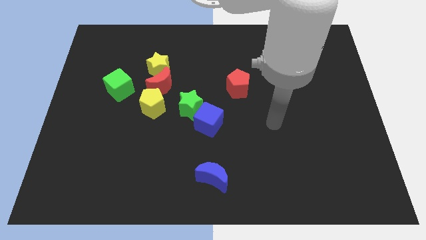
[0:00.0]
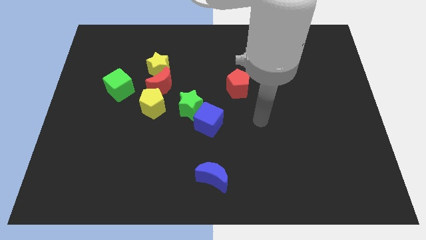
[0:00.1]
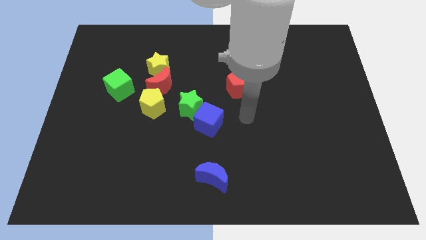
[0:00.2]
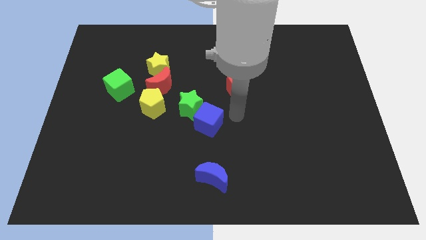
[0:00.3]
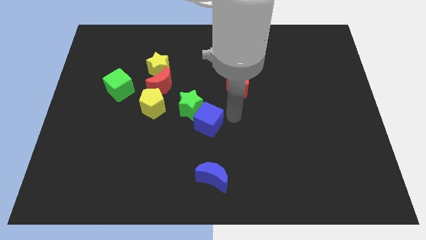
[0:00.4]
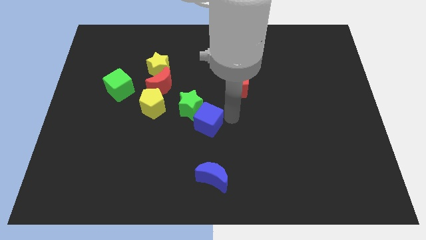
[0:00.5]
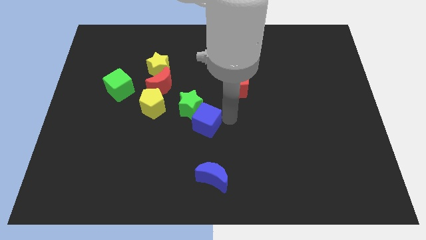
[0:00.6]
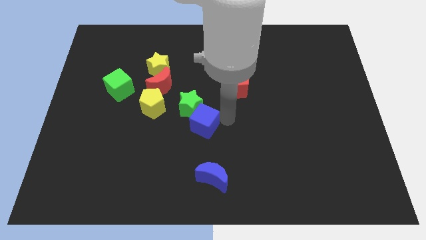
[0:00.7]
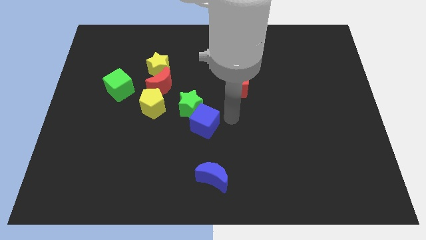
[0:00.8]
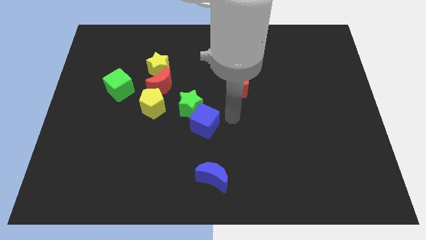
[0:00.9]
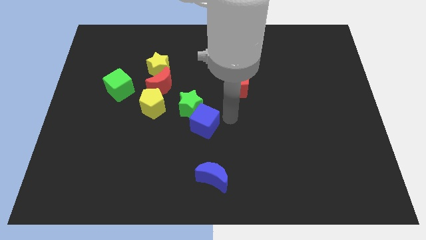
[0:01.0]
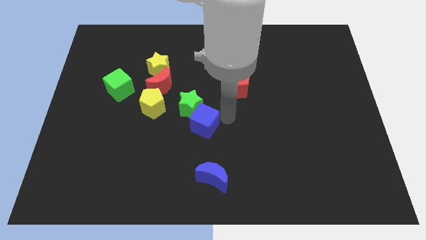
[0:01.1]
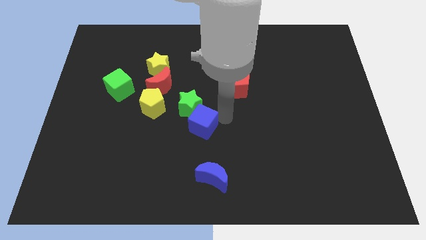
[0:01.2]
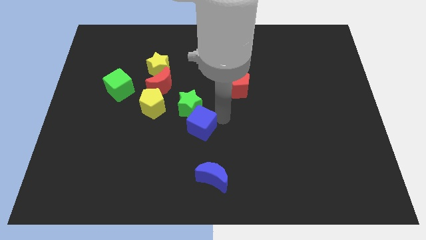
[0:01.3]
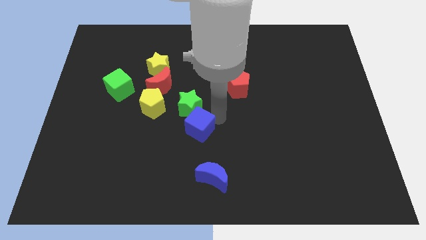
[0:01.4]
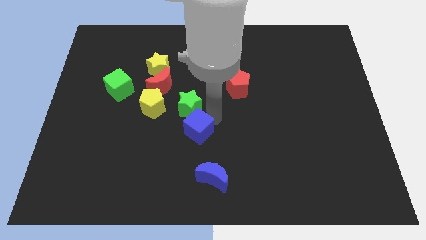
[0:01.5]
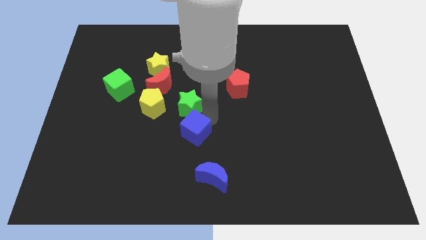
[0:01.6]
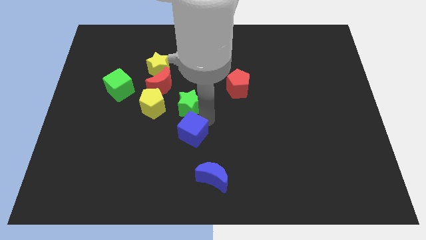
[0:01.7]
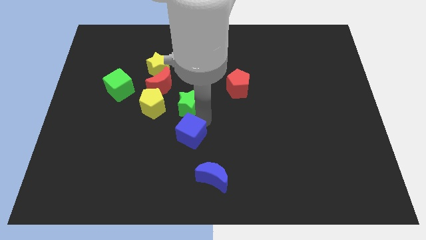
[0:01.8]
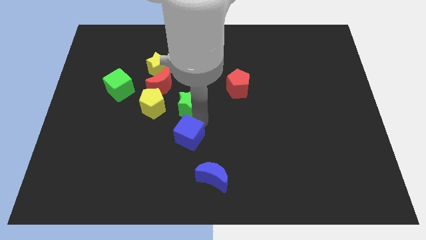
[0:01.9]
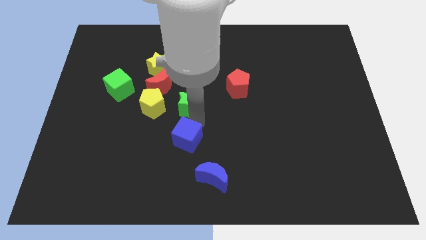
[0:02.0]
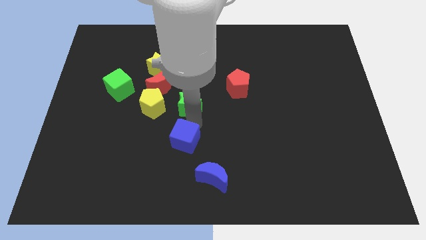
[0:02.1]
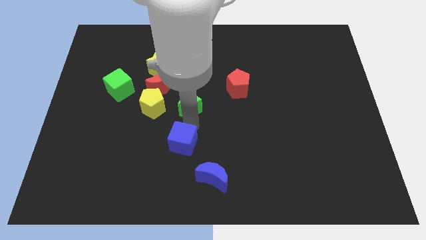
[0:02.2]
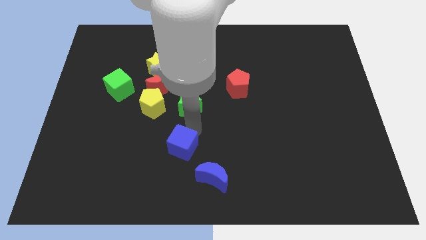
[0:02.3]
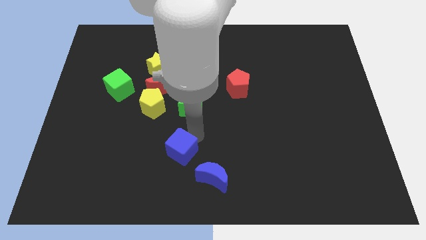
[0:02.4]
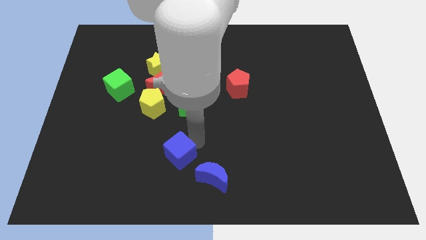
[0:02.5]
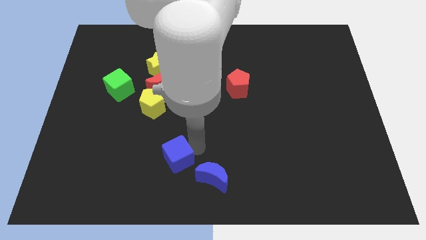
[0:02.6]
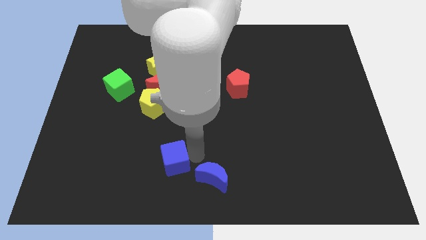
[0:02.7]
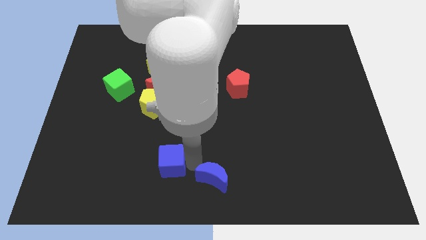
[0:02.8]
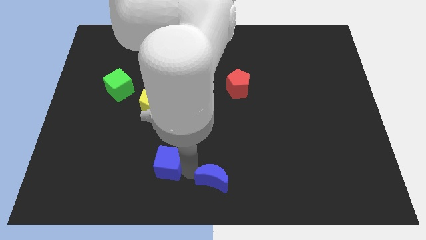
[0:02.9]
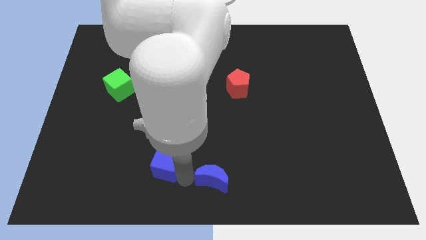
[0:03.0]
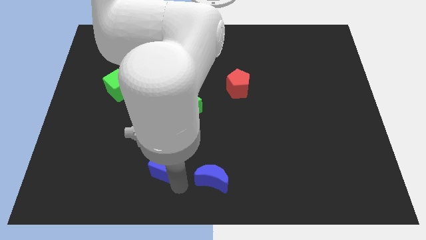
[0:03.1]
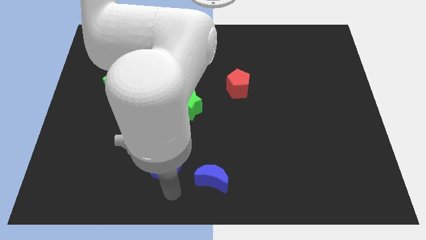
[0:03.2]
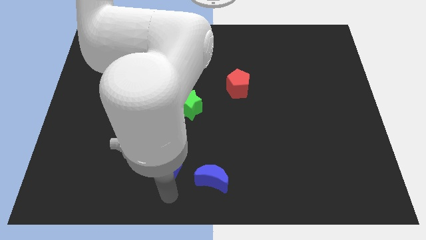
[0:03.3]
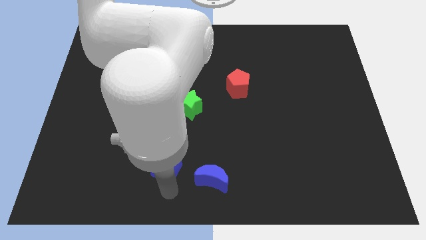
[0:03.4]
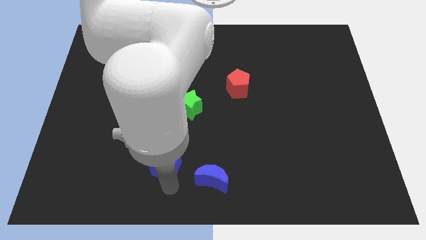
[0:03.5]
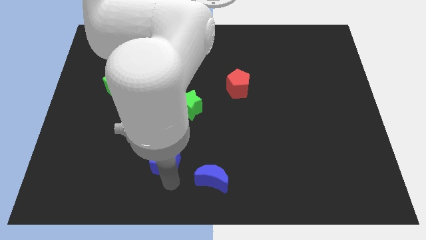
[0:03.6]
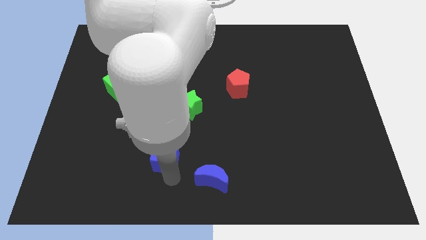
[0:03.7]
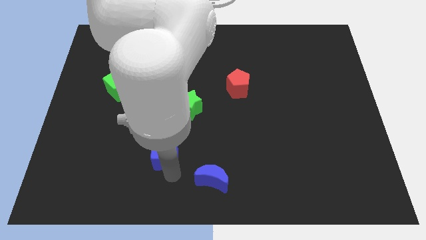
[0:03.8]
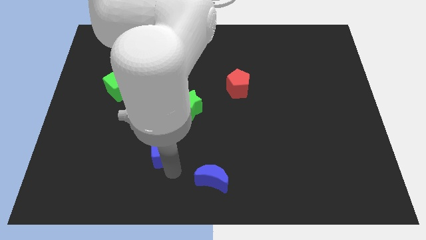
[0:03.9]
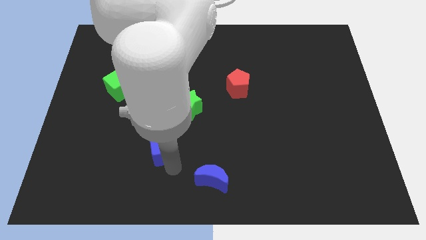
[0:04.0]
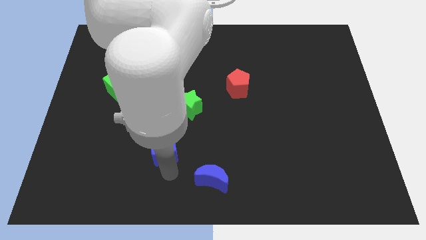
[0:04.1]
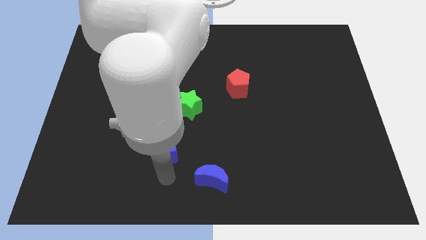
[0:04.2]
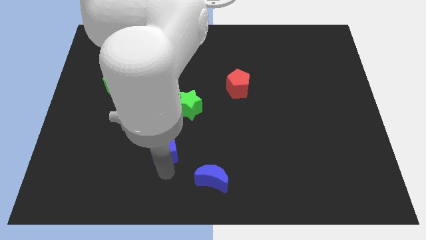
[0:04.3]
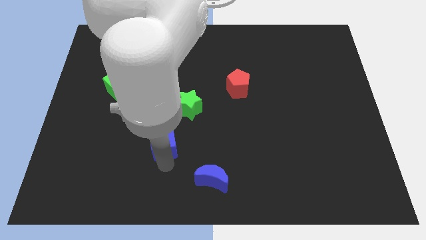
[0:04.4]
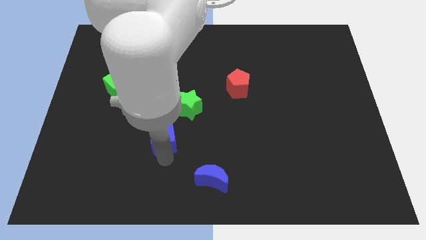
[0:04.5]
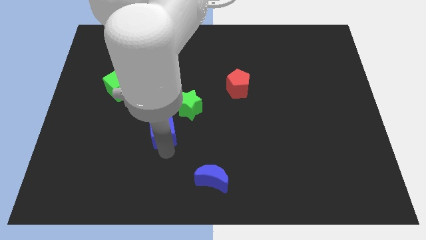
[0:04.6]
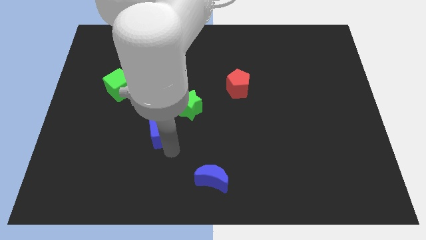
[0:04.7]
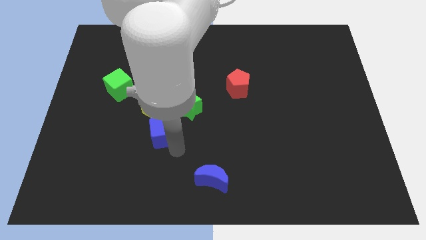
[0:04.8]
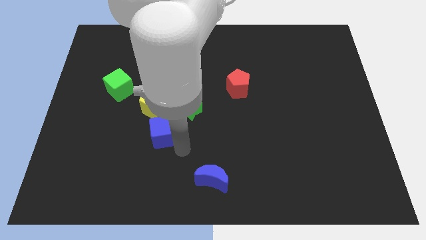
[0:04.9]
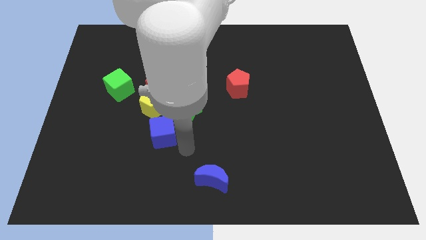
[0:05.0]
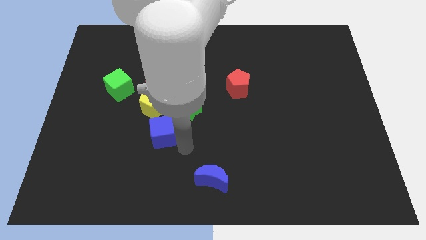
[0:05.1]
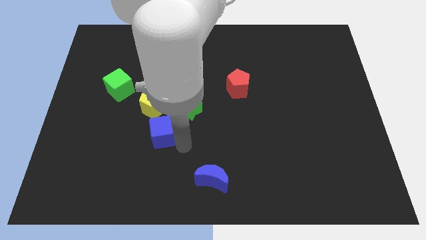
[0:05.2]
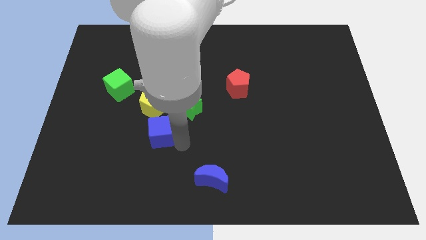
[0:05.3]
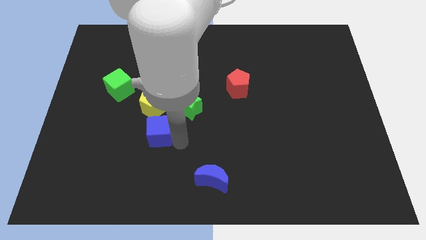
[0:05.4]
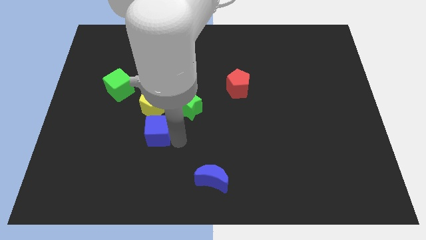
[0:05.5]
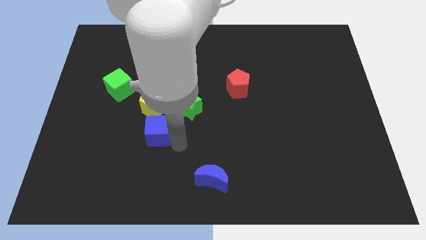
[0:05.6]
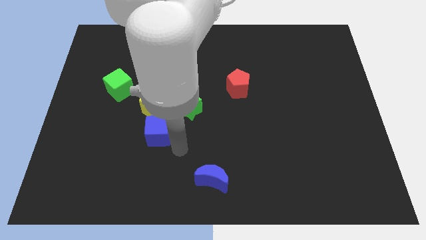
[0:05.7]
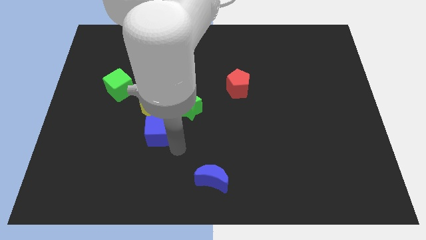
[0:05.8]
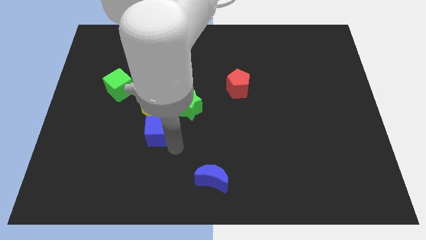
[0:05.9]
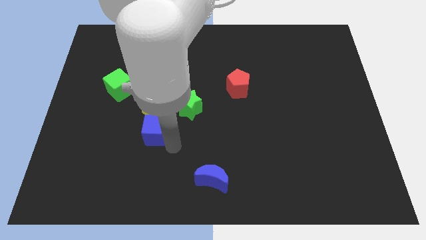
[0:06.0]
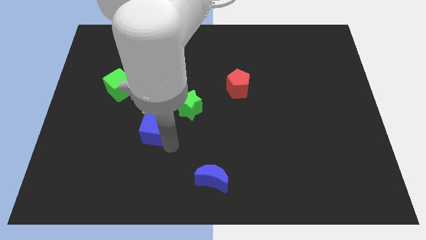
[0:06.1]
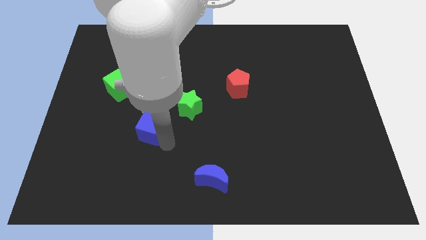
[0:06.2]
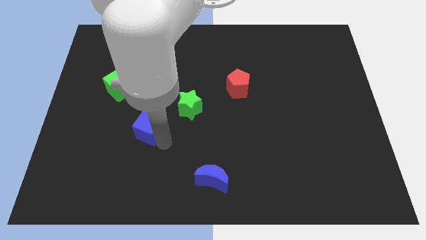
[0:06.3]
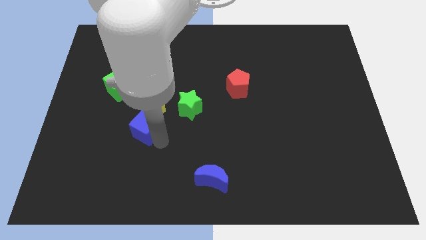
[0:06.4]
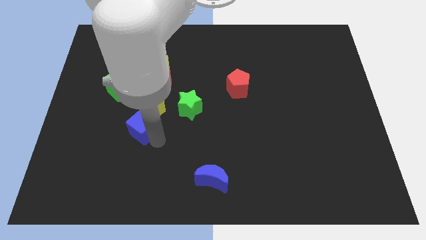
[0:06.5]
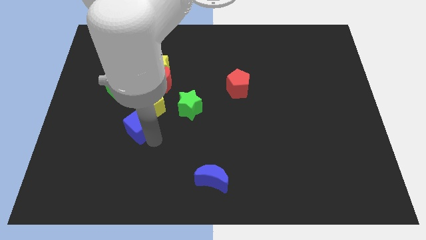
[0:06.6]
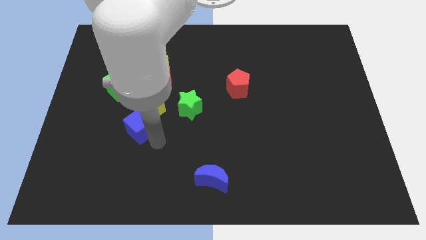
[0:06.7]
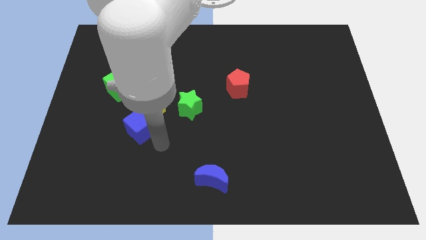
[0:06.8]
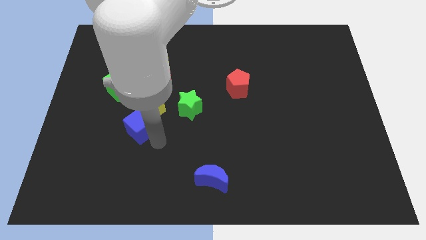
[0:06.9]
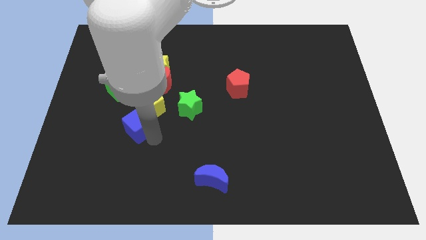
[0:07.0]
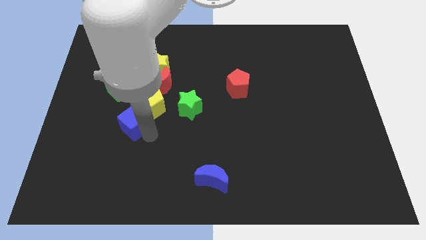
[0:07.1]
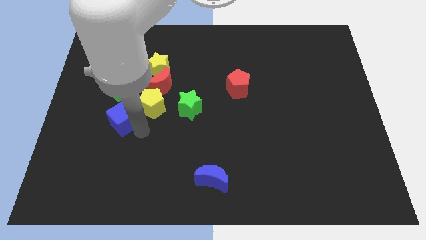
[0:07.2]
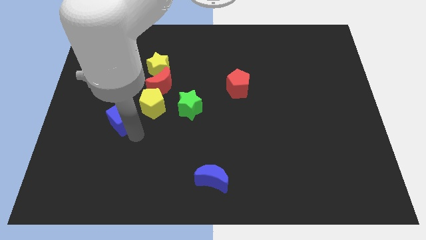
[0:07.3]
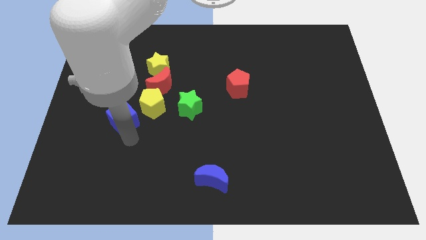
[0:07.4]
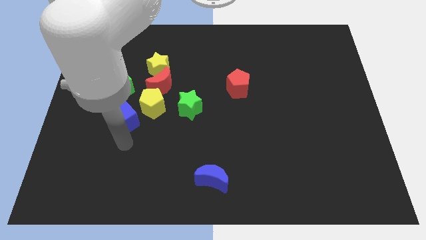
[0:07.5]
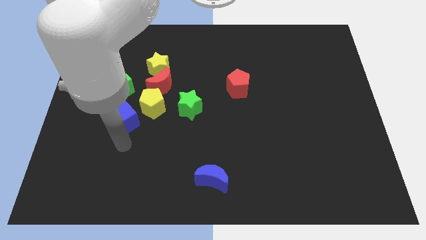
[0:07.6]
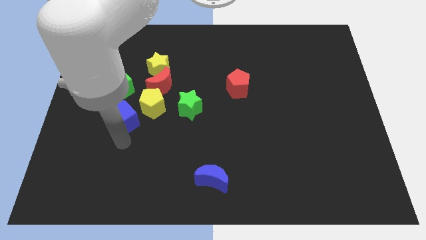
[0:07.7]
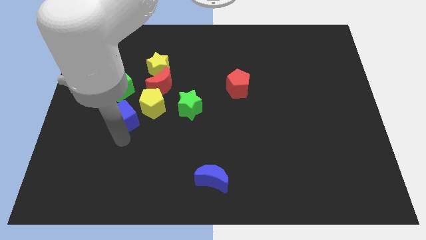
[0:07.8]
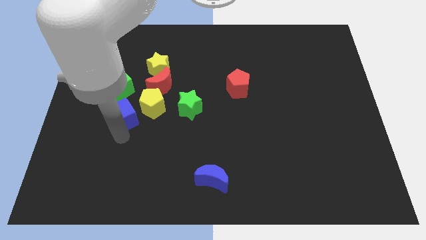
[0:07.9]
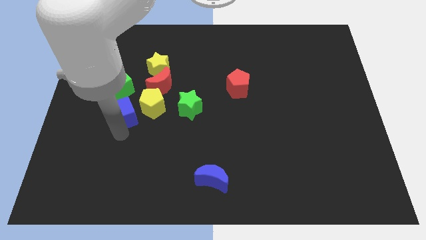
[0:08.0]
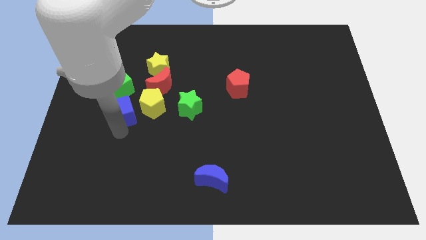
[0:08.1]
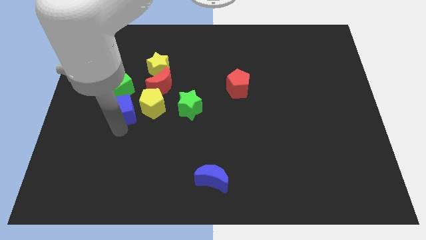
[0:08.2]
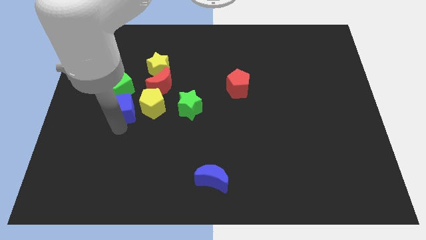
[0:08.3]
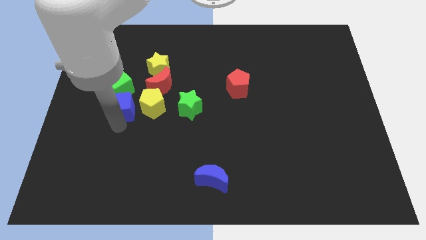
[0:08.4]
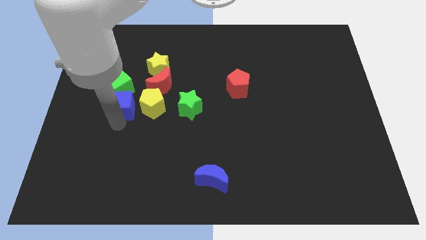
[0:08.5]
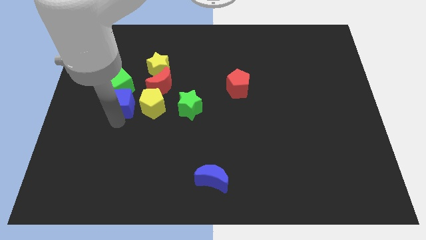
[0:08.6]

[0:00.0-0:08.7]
put the blue cube next to the green cube
